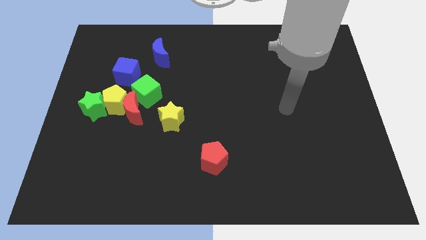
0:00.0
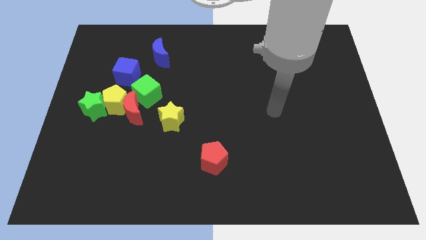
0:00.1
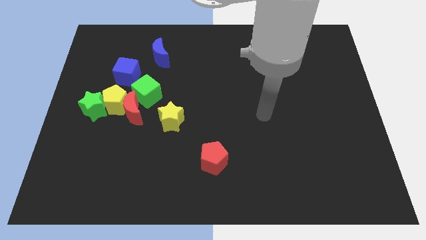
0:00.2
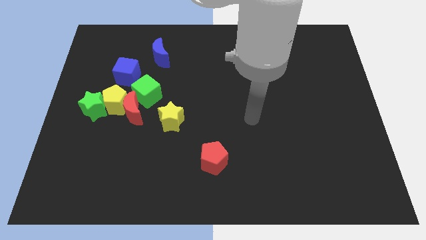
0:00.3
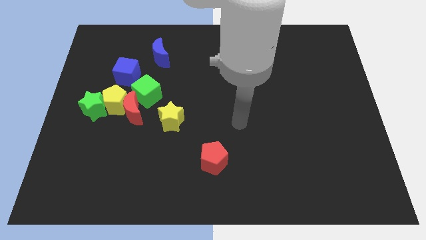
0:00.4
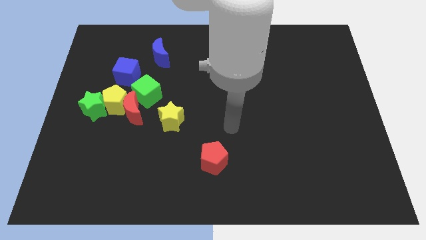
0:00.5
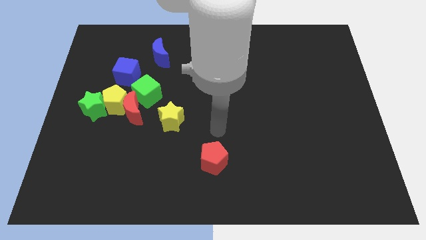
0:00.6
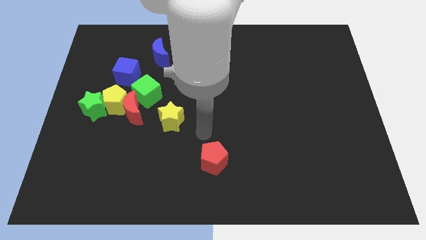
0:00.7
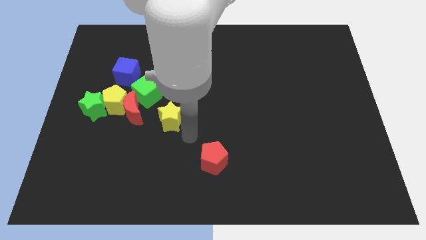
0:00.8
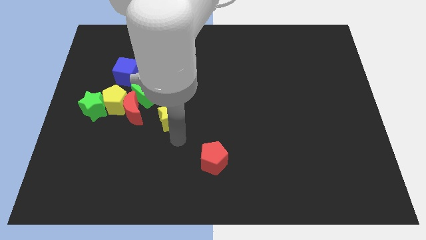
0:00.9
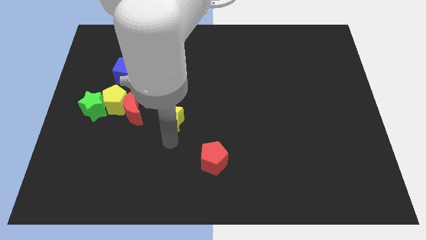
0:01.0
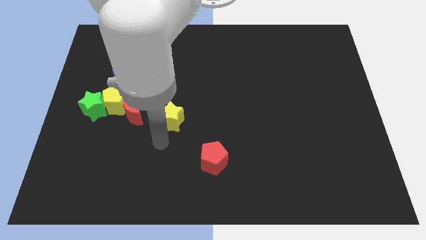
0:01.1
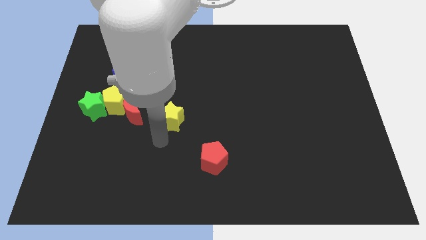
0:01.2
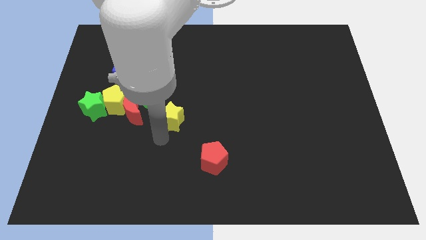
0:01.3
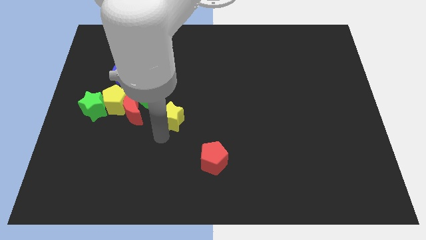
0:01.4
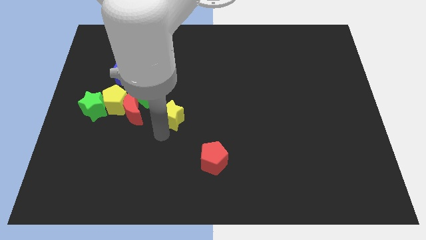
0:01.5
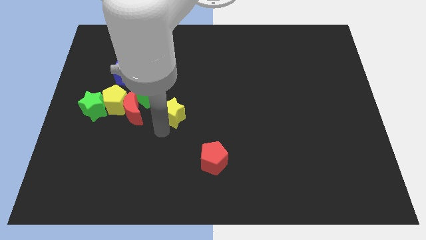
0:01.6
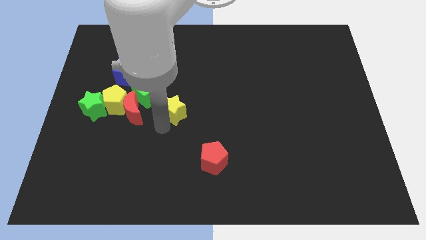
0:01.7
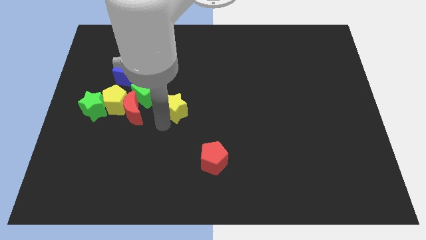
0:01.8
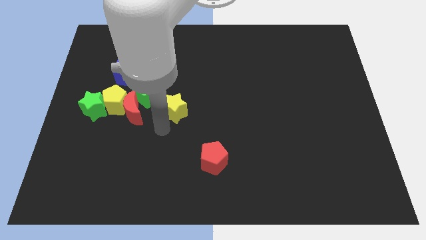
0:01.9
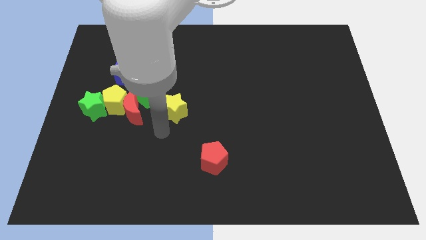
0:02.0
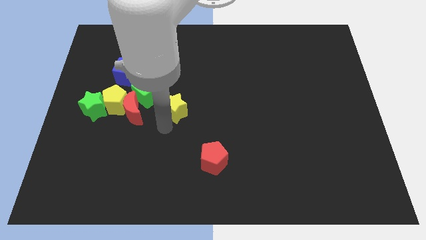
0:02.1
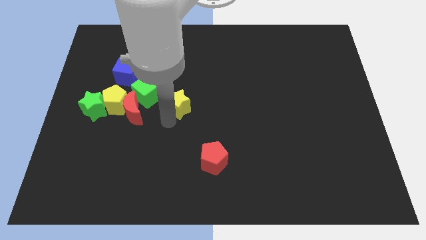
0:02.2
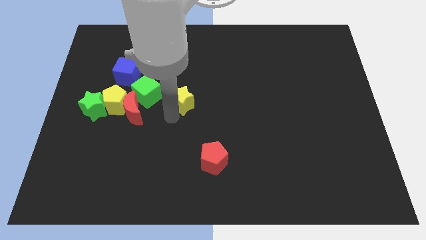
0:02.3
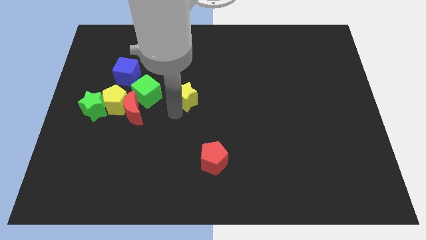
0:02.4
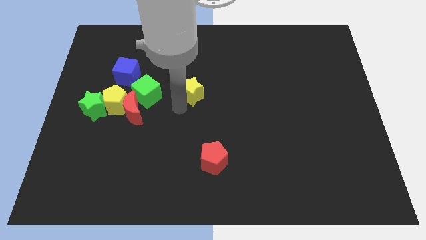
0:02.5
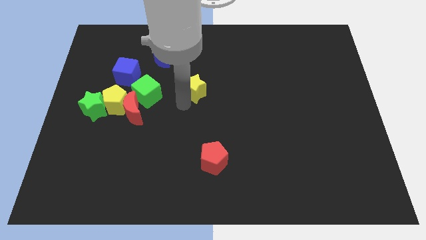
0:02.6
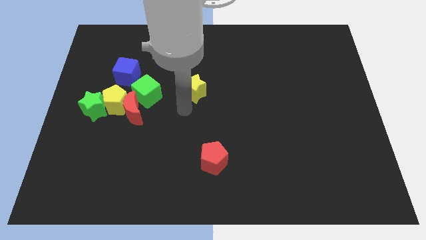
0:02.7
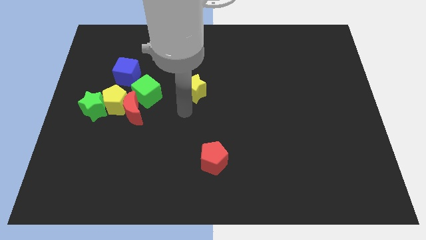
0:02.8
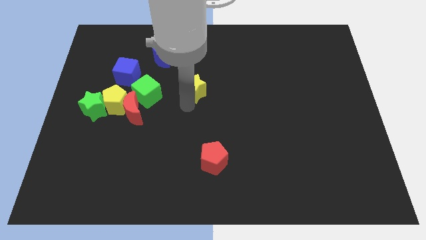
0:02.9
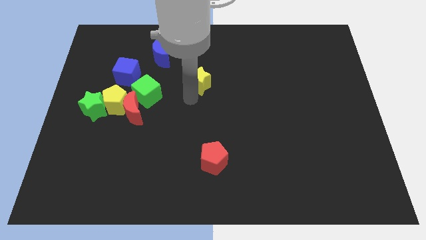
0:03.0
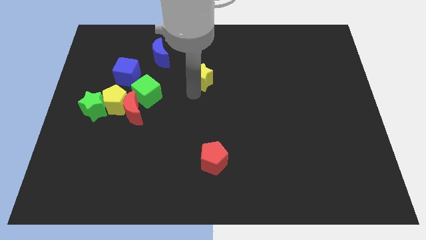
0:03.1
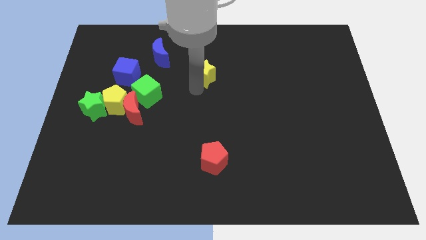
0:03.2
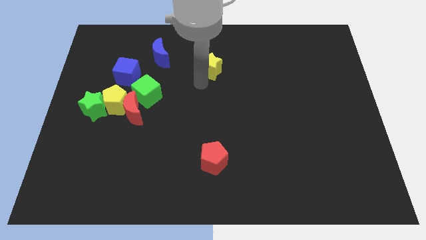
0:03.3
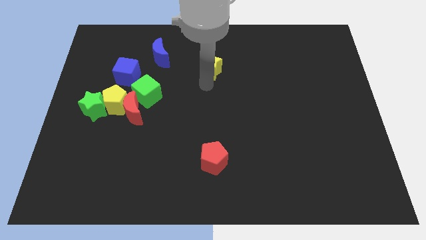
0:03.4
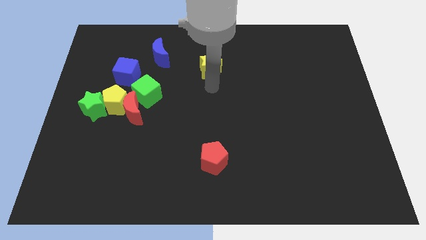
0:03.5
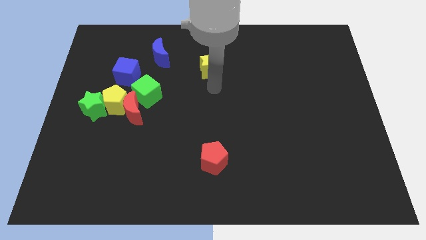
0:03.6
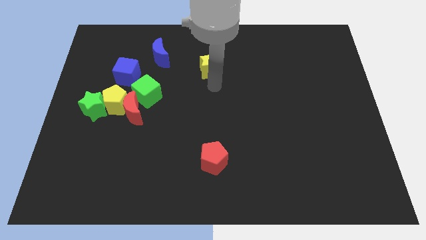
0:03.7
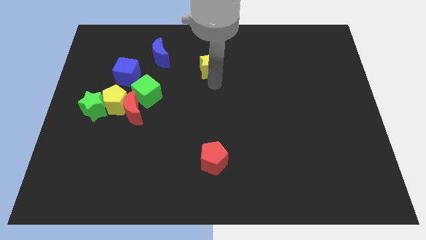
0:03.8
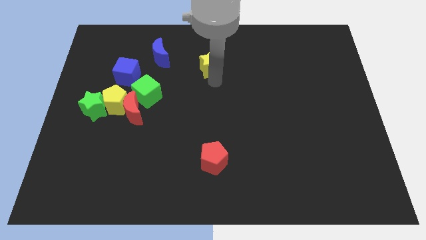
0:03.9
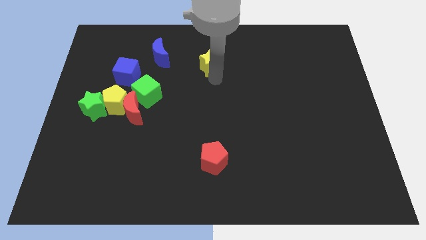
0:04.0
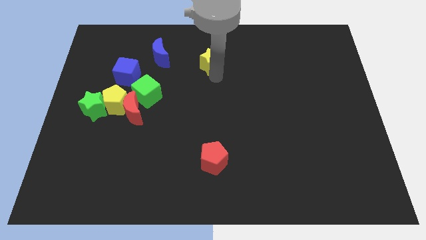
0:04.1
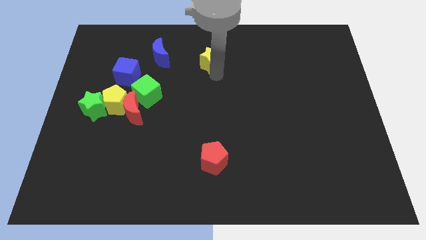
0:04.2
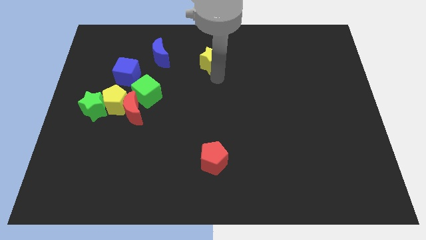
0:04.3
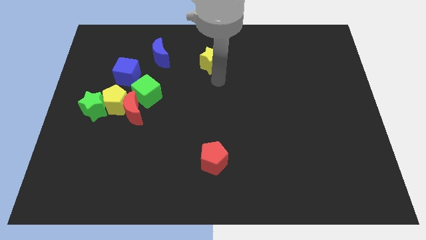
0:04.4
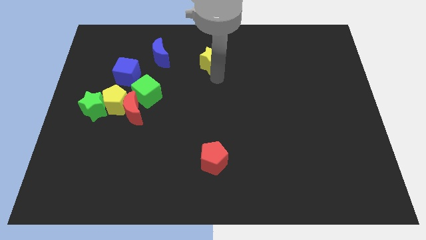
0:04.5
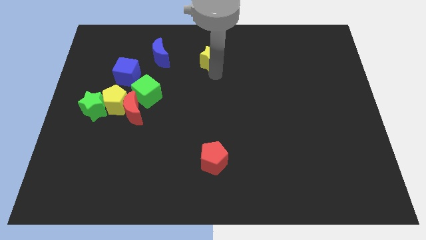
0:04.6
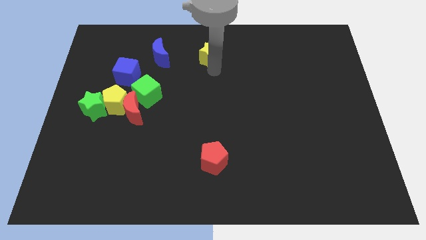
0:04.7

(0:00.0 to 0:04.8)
move the yellow star to the top side

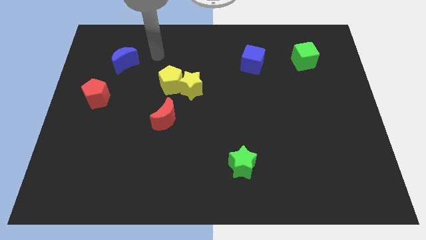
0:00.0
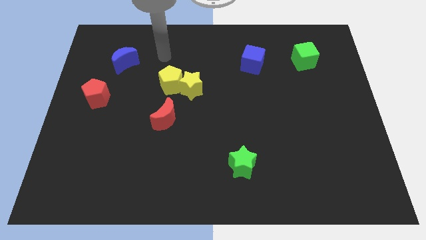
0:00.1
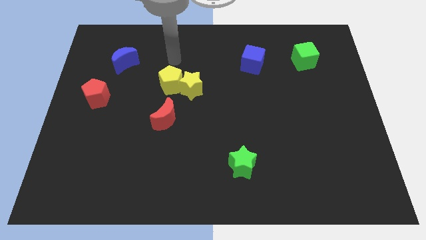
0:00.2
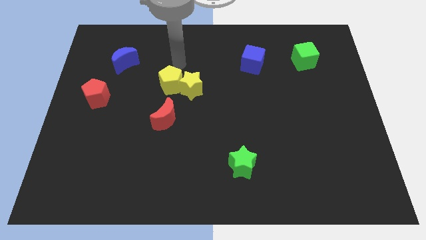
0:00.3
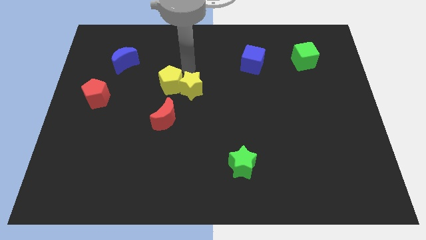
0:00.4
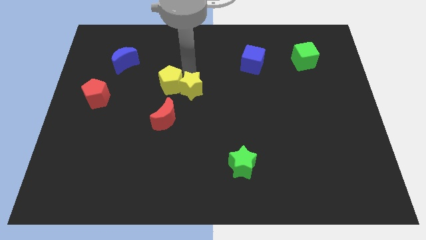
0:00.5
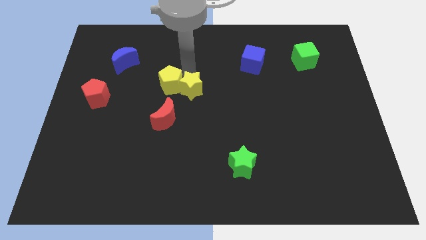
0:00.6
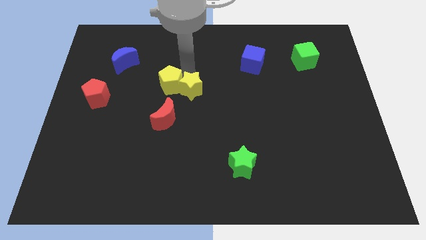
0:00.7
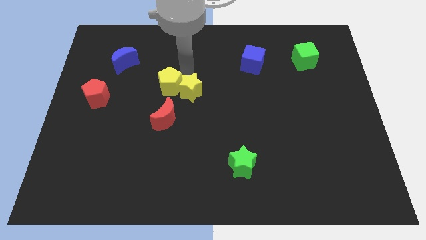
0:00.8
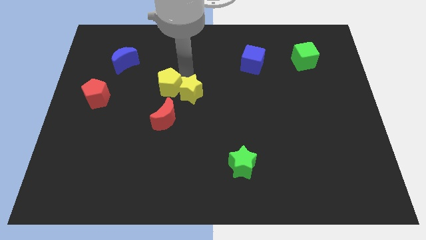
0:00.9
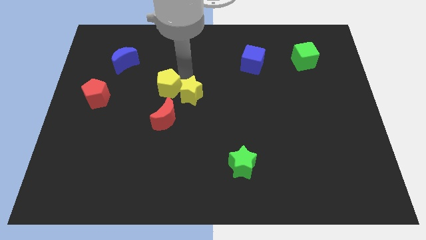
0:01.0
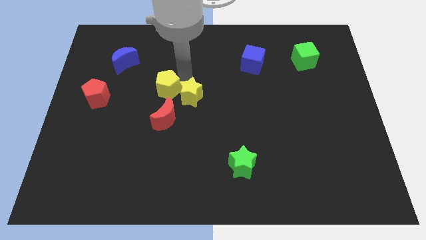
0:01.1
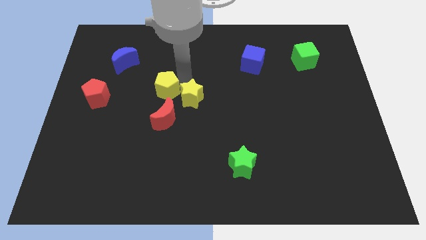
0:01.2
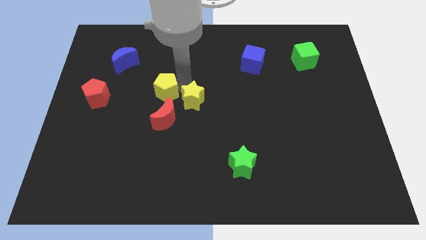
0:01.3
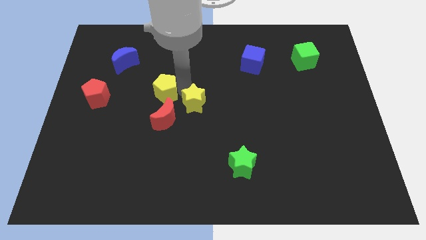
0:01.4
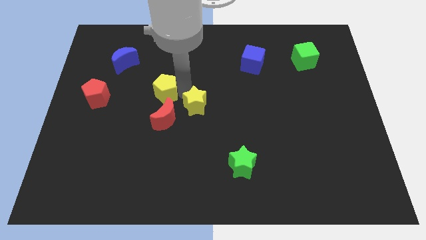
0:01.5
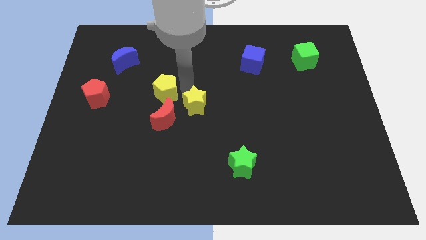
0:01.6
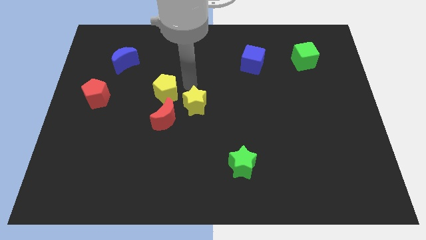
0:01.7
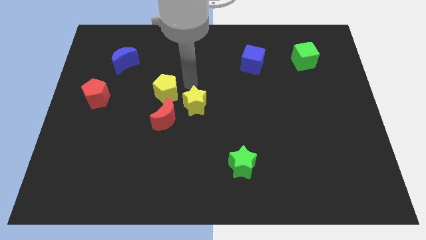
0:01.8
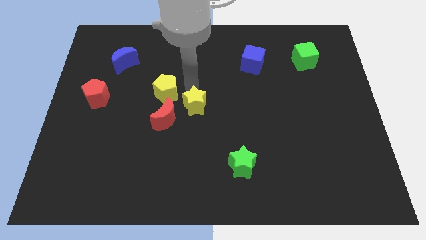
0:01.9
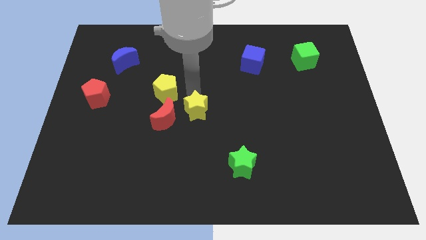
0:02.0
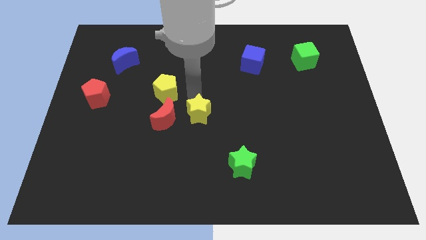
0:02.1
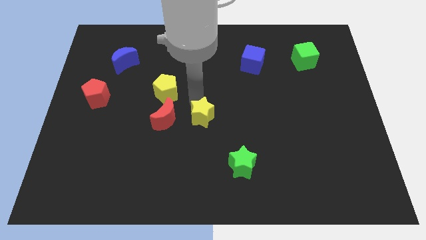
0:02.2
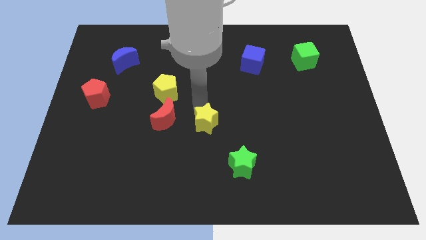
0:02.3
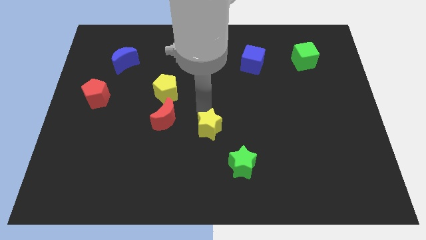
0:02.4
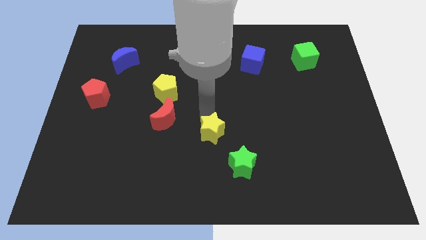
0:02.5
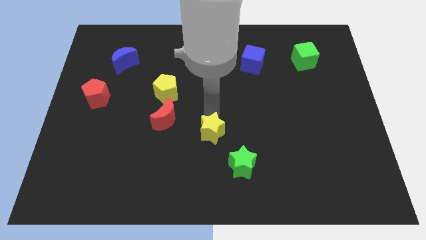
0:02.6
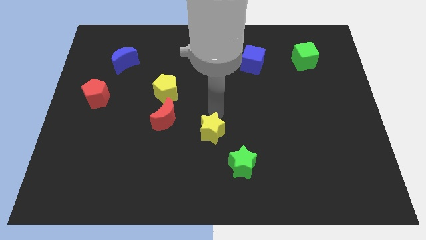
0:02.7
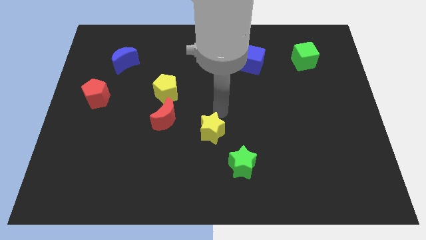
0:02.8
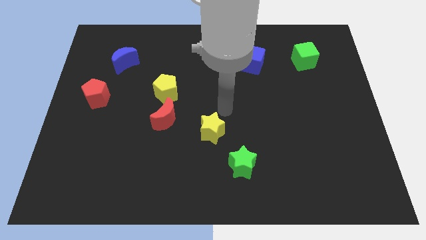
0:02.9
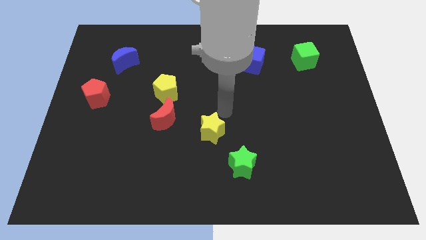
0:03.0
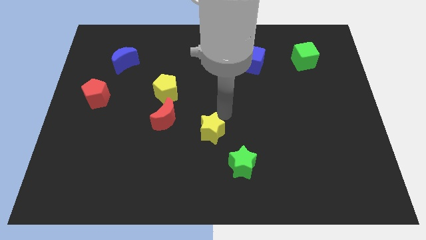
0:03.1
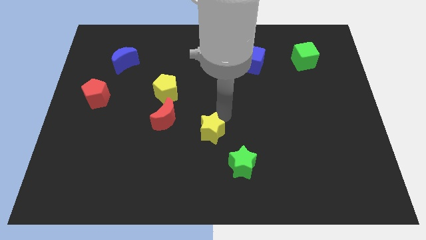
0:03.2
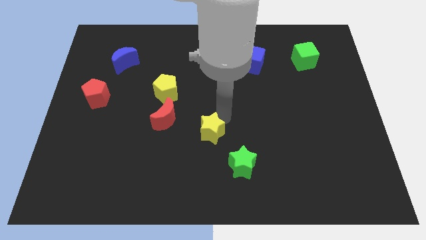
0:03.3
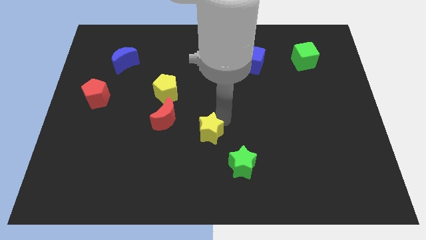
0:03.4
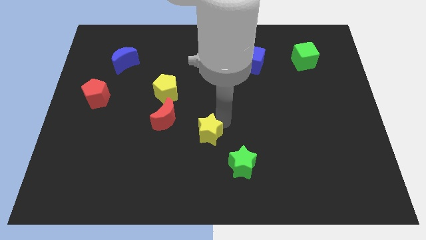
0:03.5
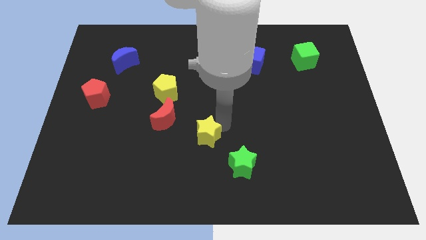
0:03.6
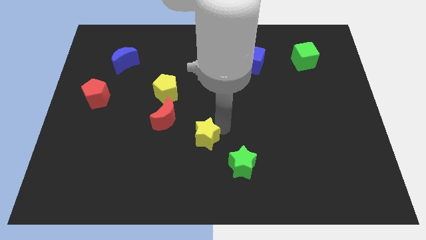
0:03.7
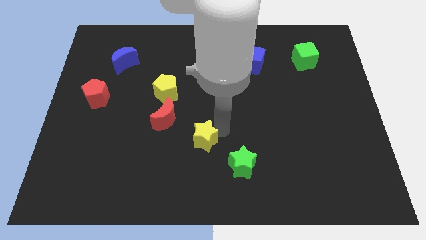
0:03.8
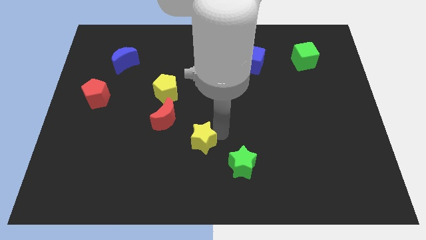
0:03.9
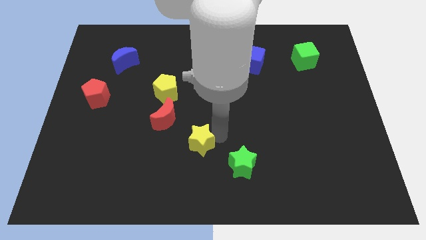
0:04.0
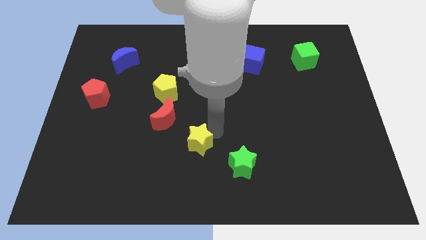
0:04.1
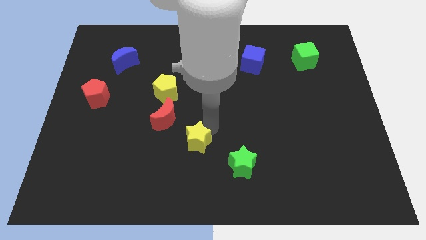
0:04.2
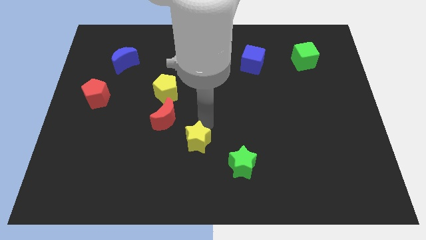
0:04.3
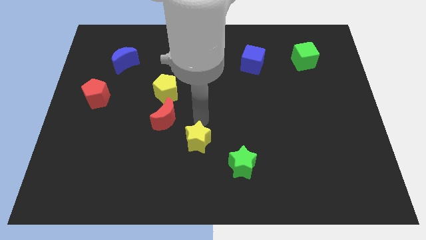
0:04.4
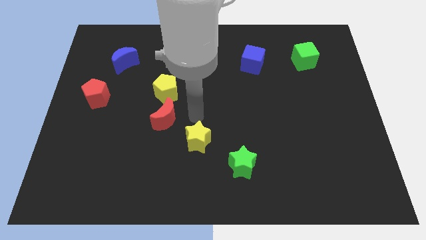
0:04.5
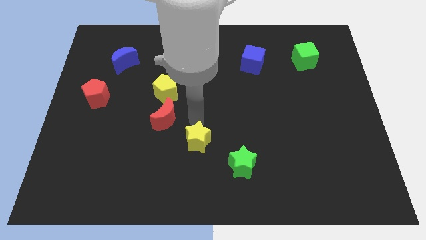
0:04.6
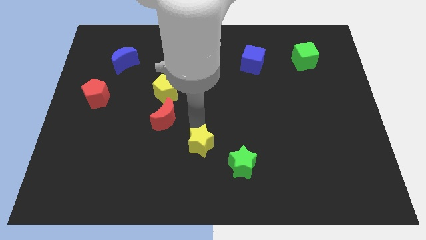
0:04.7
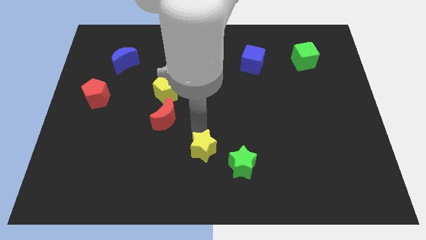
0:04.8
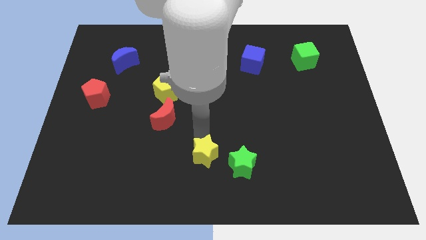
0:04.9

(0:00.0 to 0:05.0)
move the yellow star to the bottom
